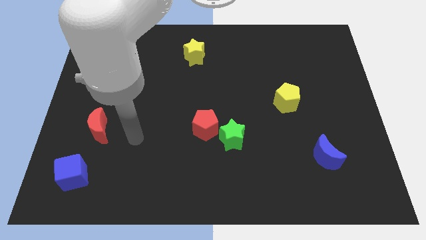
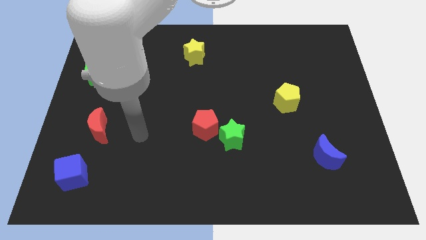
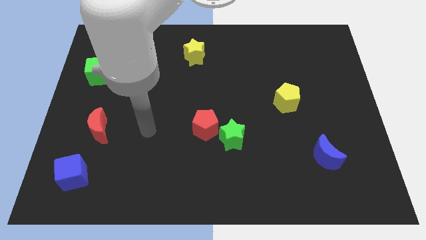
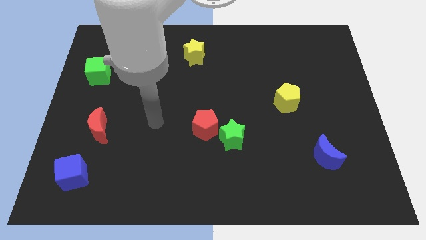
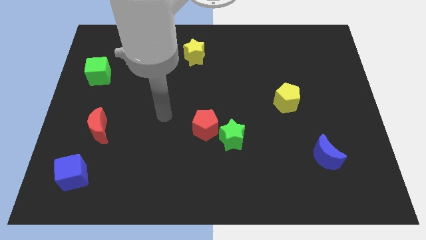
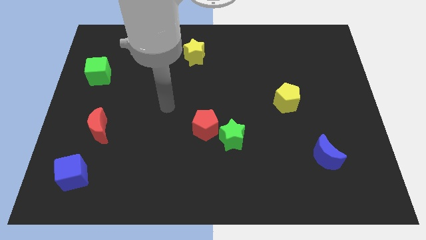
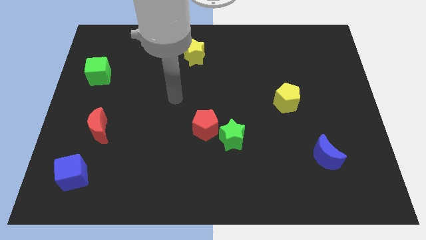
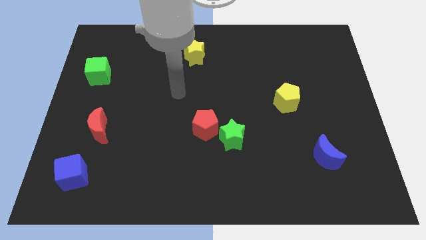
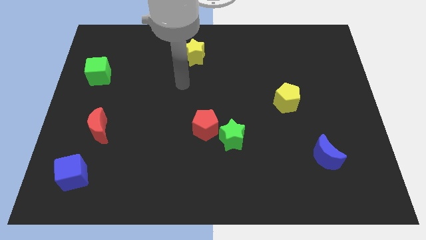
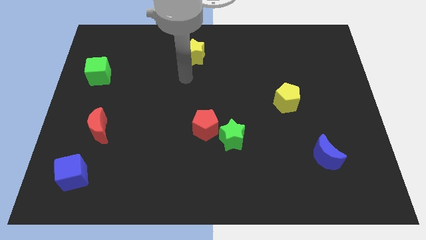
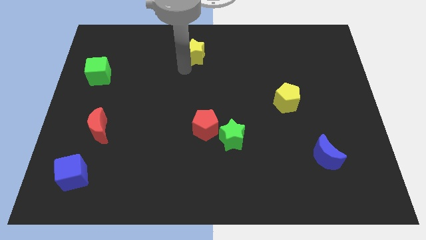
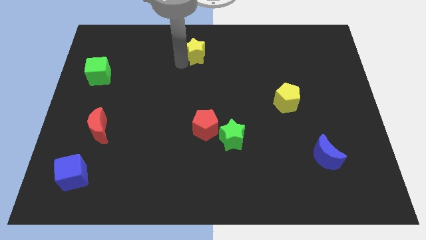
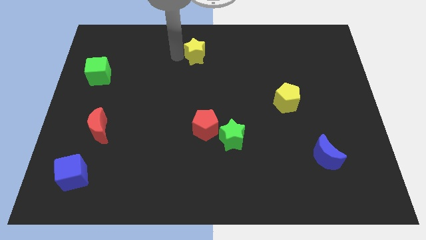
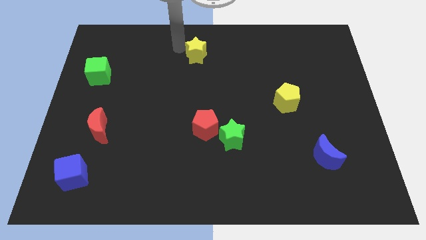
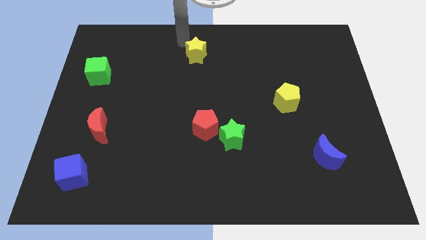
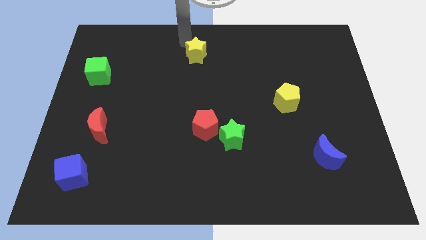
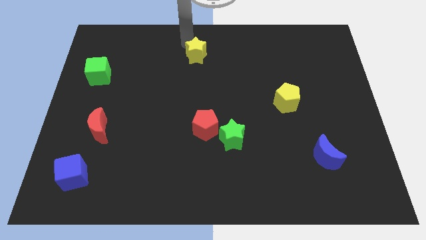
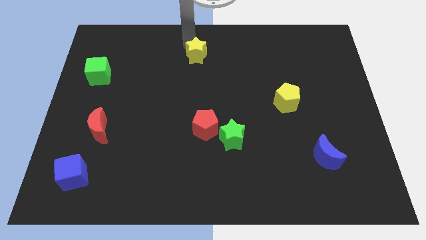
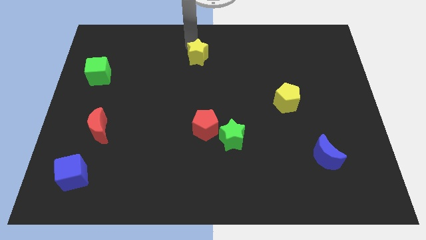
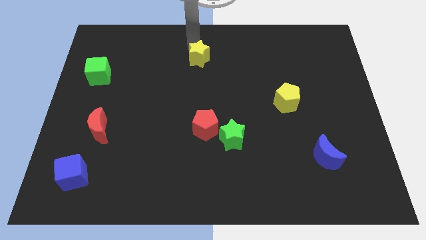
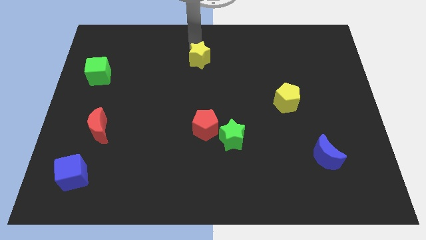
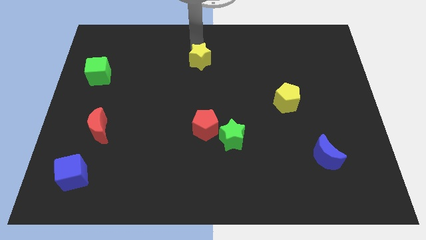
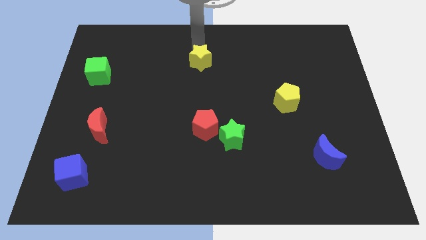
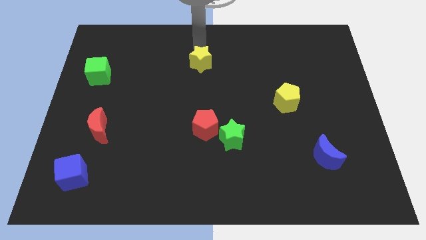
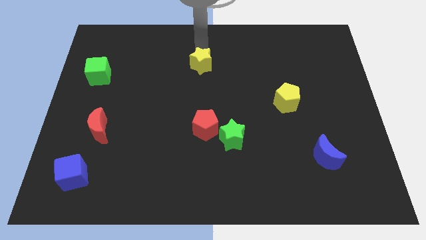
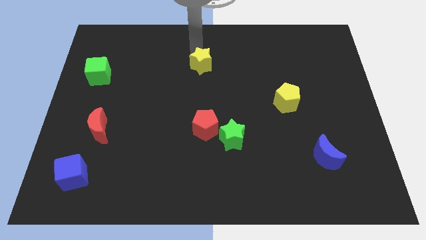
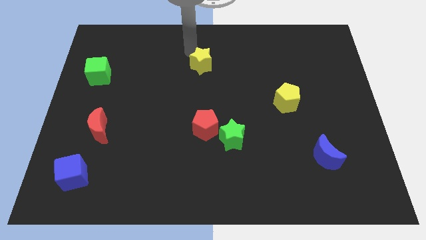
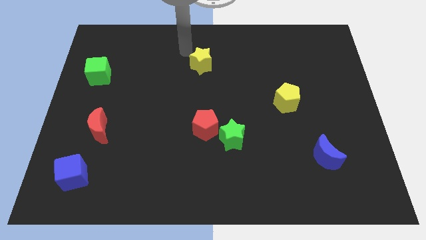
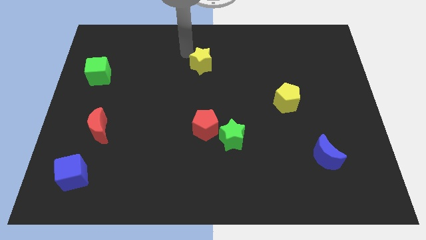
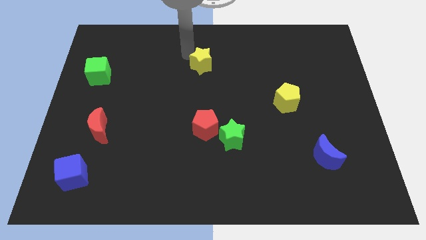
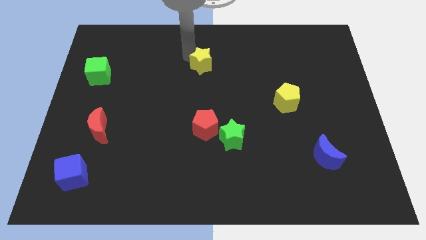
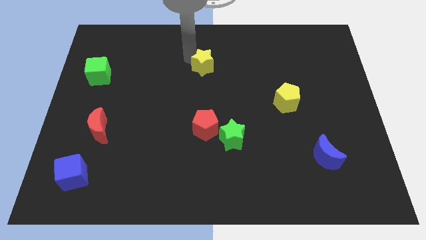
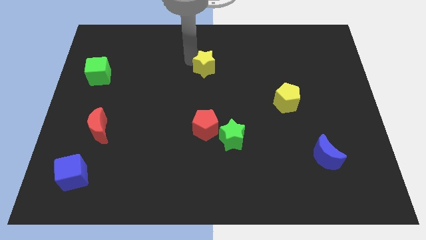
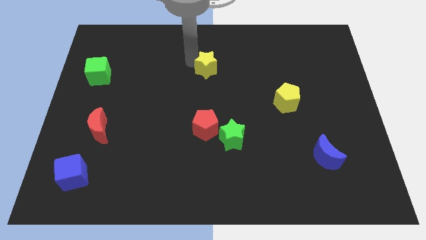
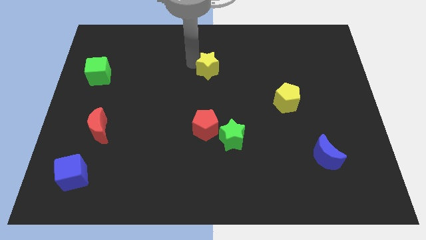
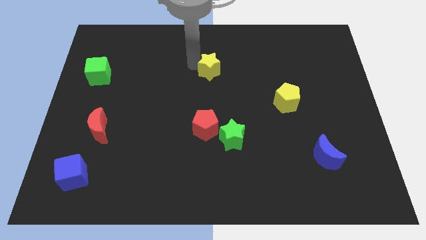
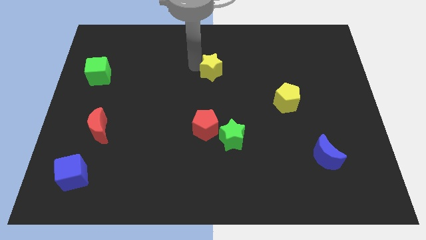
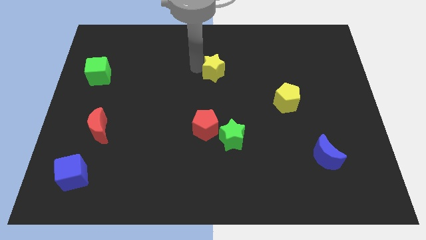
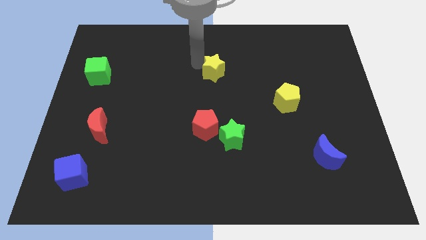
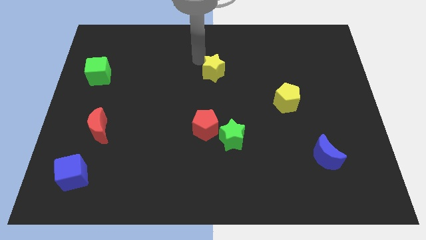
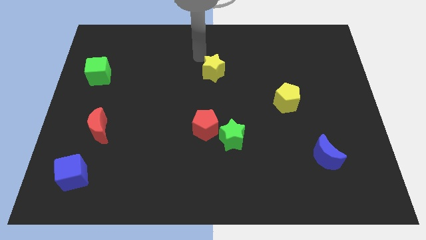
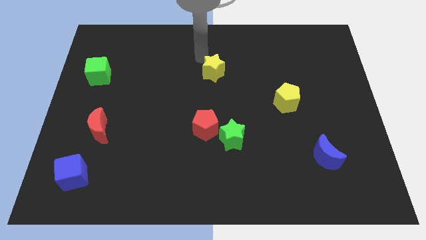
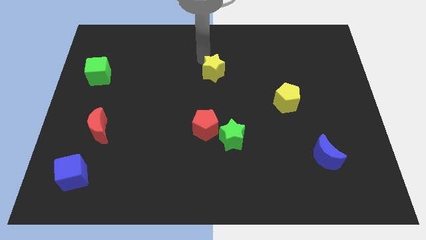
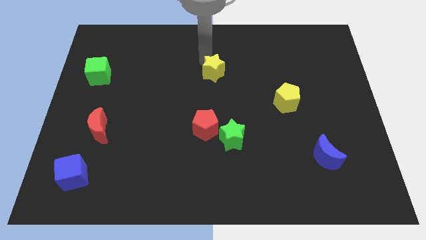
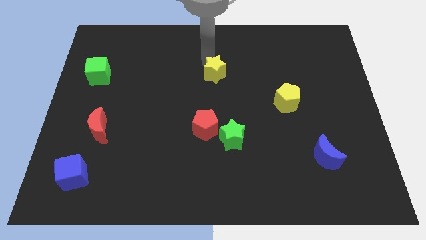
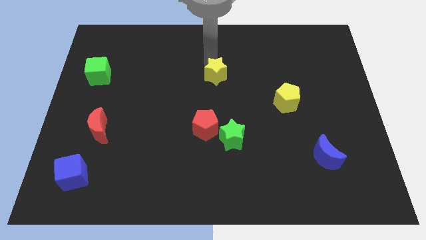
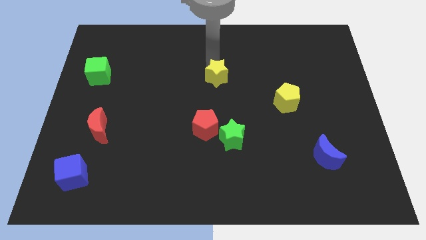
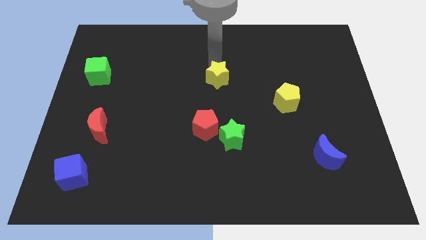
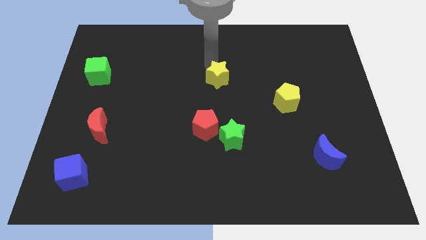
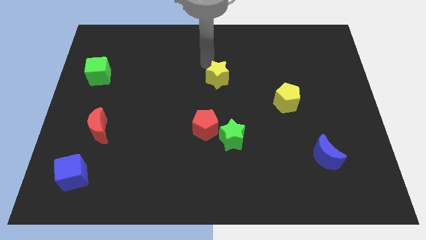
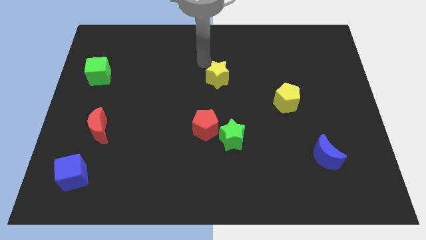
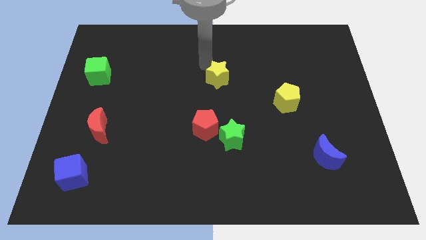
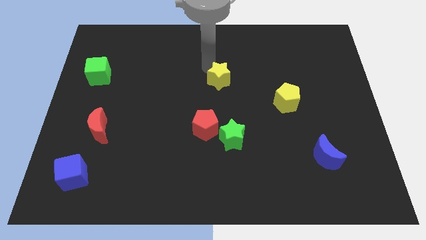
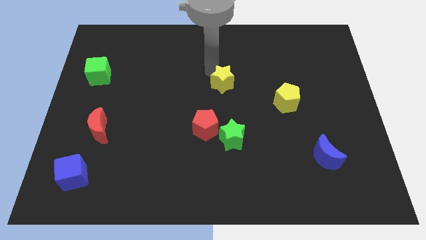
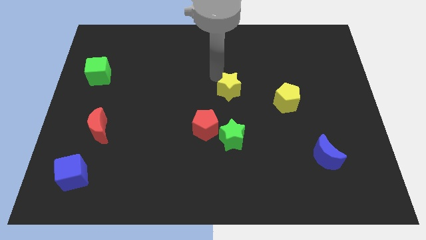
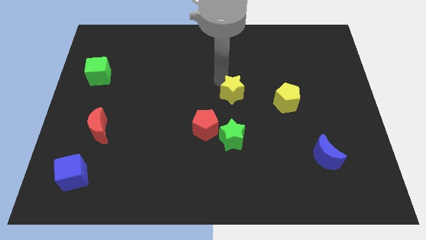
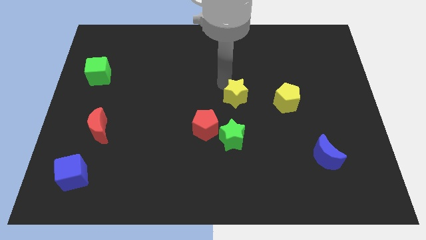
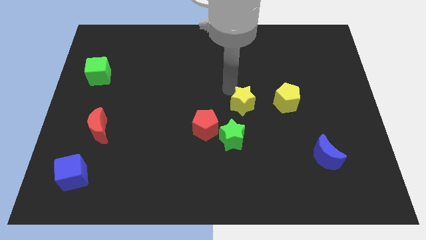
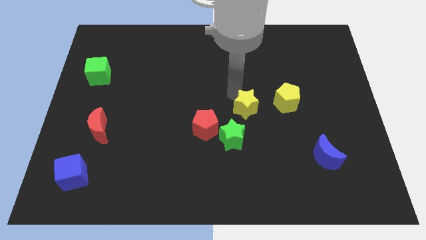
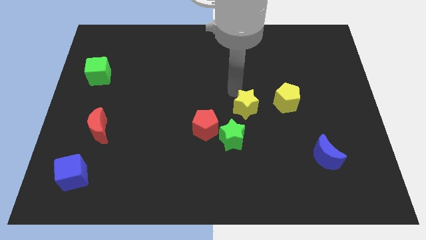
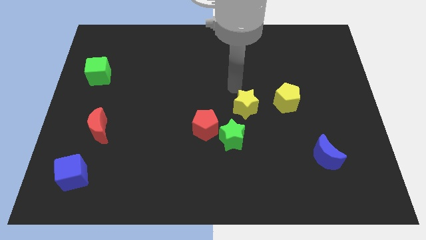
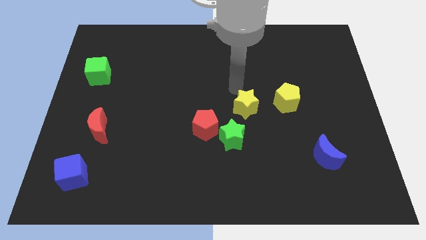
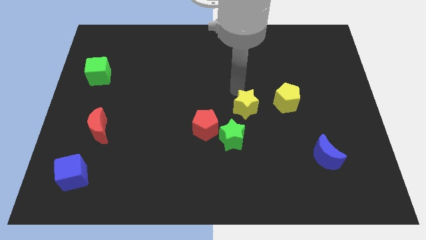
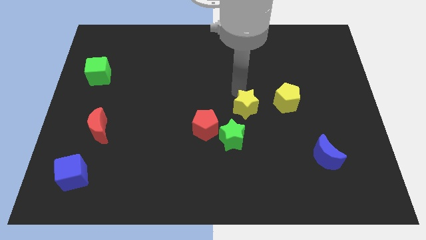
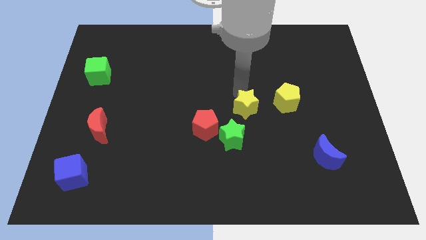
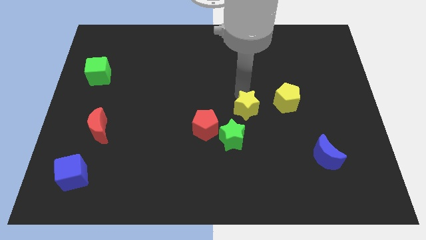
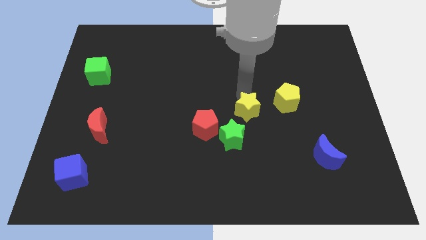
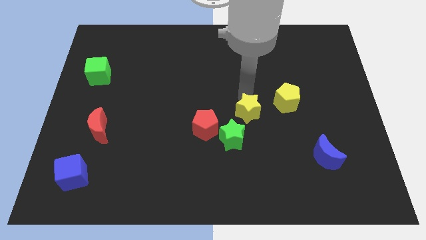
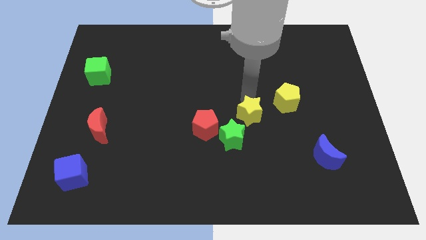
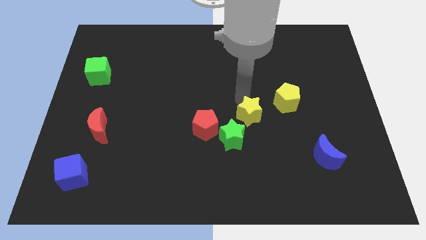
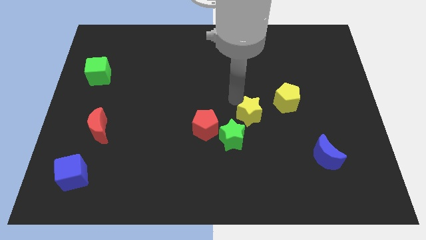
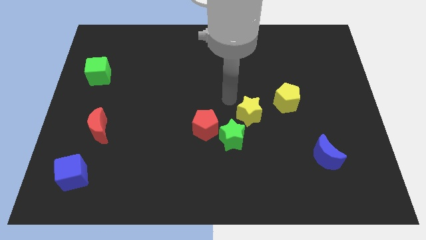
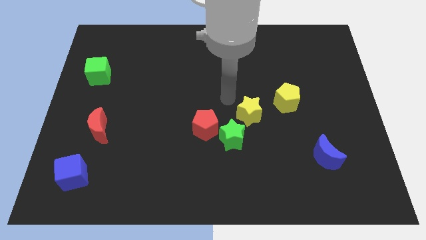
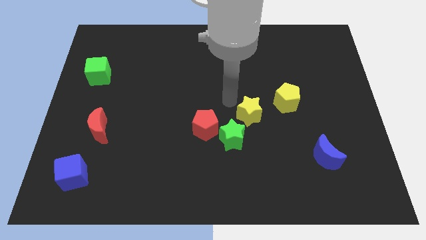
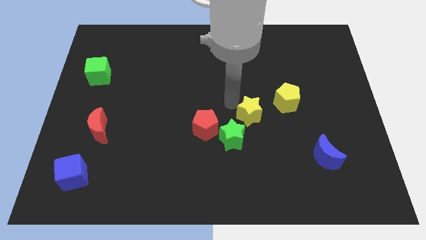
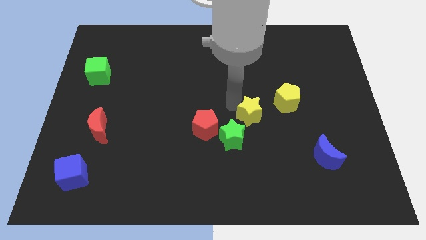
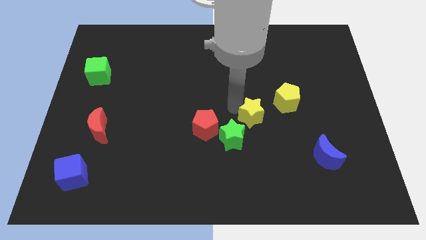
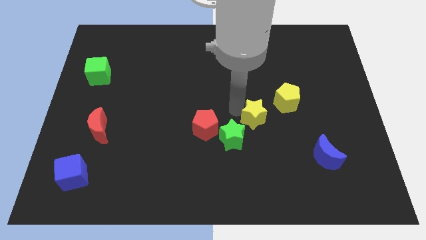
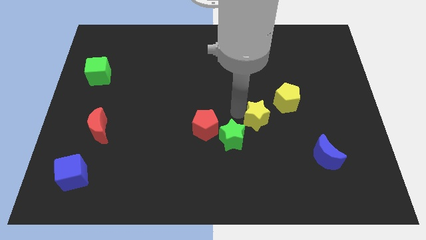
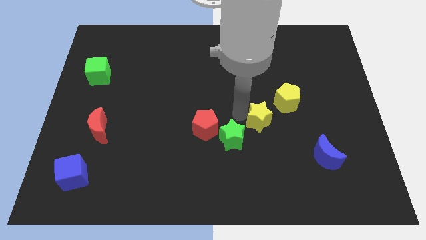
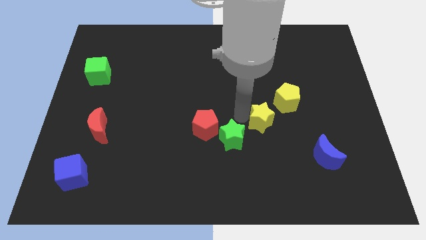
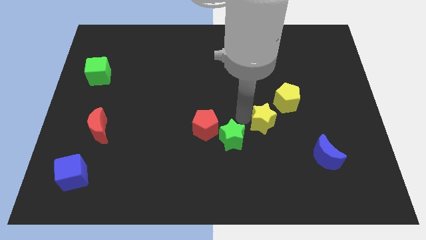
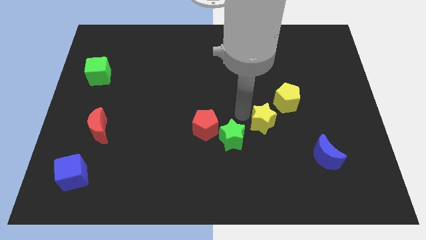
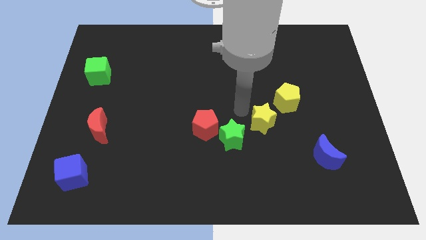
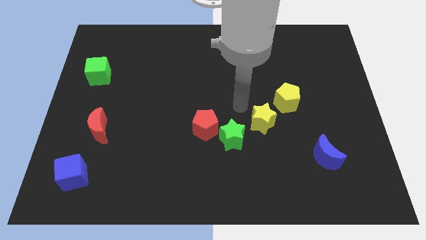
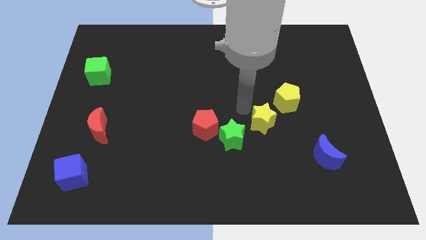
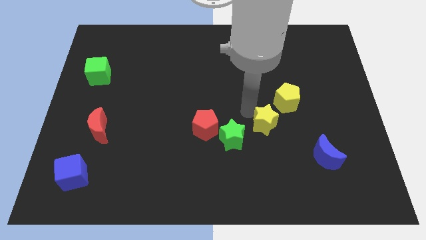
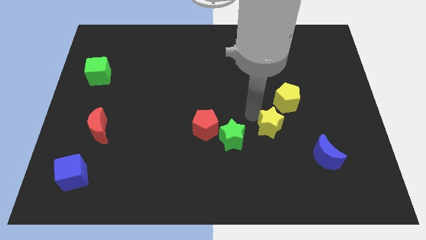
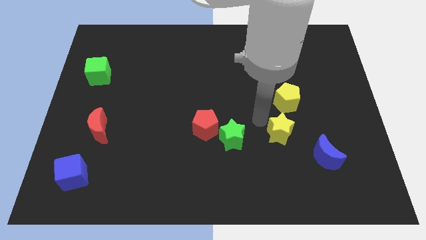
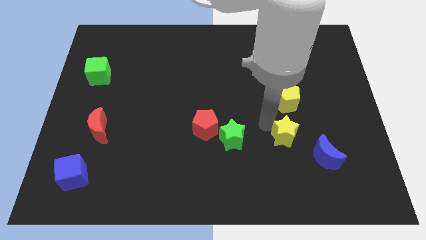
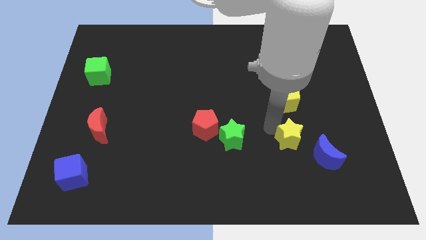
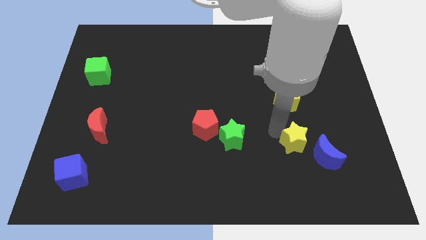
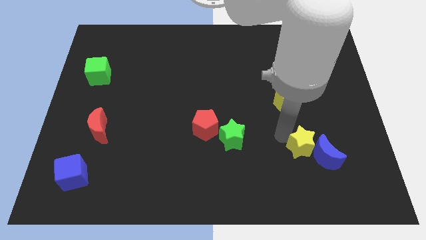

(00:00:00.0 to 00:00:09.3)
slide the yellow star next to the blue moon
